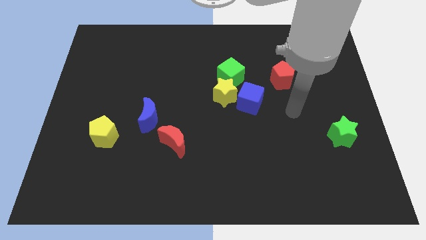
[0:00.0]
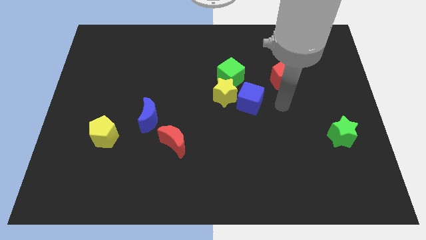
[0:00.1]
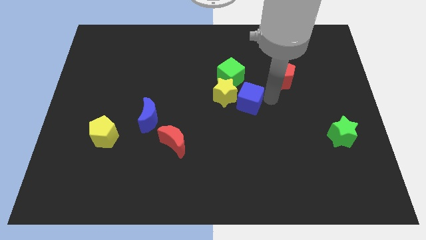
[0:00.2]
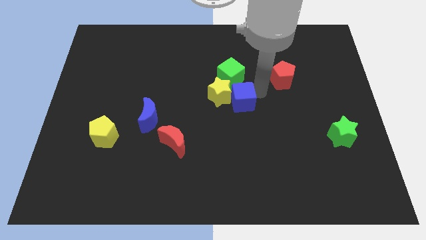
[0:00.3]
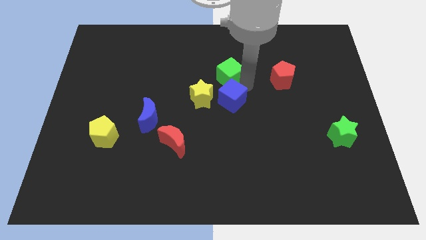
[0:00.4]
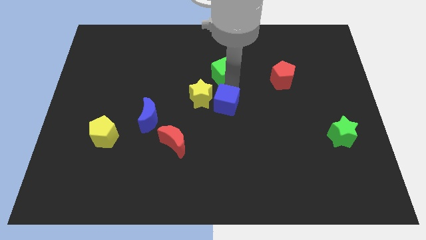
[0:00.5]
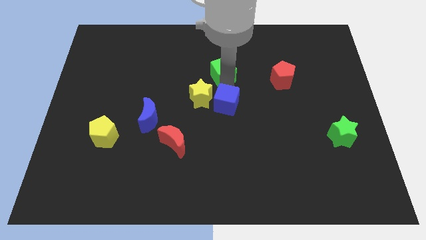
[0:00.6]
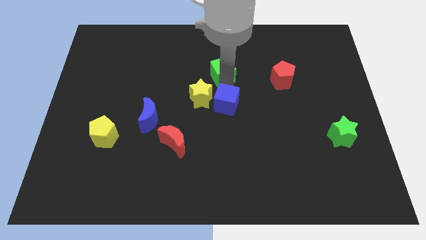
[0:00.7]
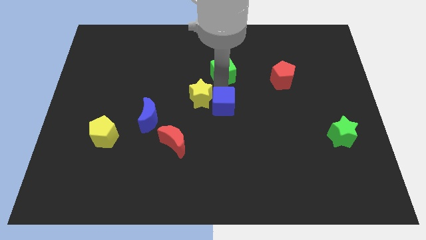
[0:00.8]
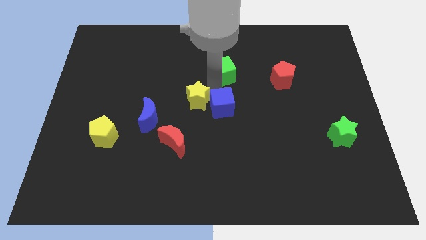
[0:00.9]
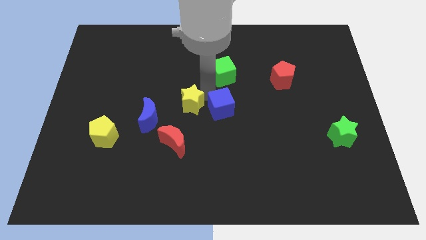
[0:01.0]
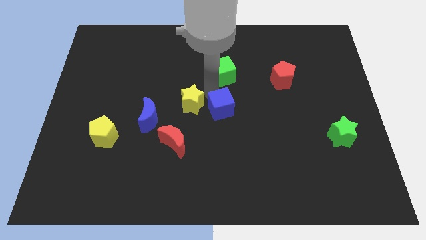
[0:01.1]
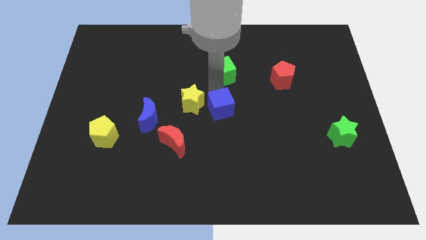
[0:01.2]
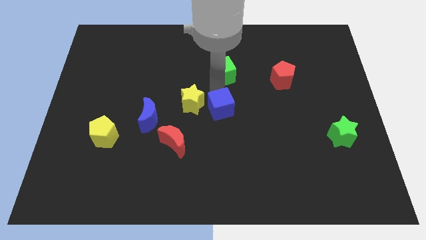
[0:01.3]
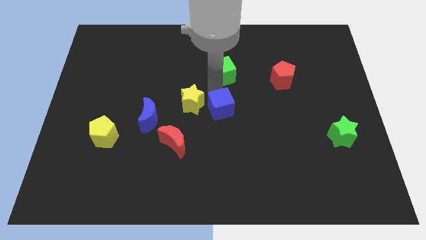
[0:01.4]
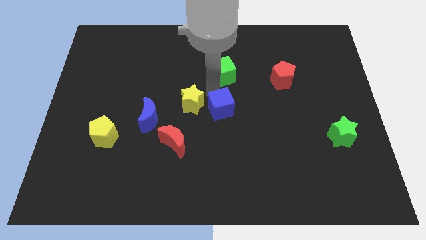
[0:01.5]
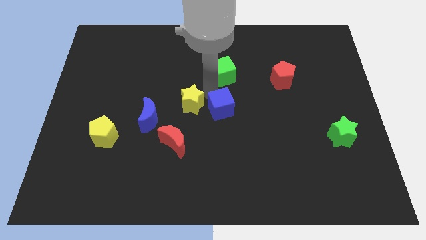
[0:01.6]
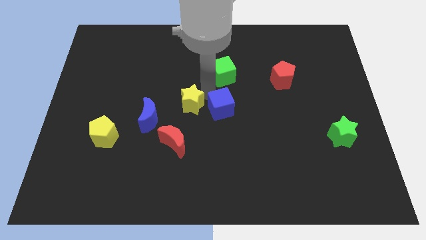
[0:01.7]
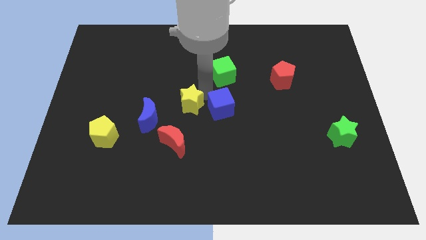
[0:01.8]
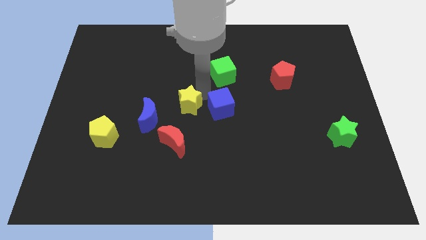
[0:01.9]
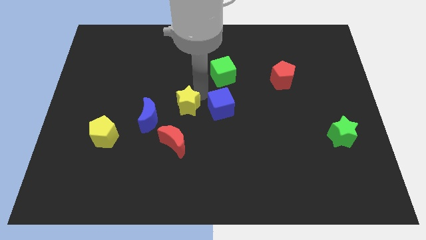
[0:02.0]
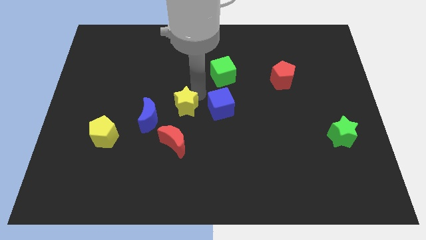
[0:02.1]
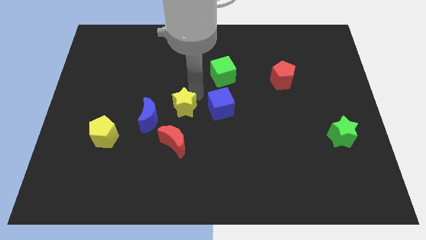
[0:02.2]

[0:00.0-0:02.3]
separate the yellow star from the green cube and blue cube

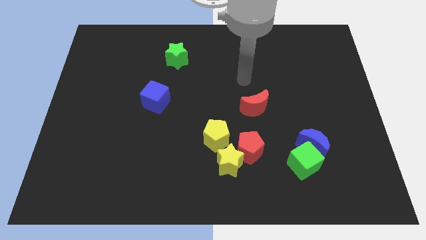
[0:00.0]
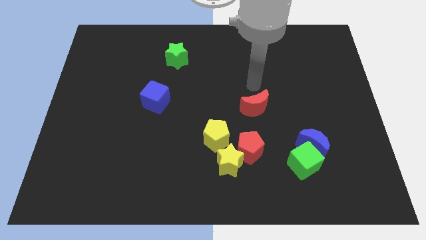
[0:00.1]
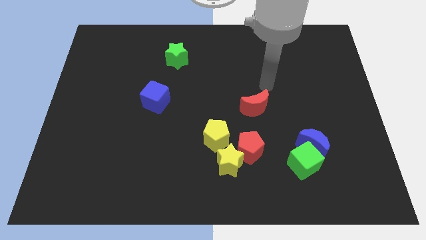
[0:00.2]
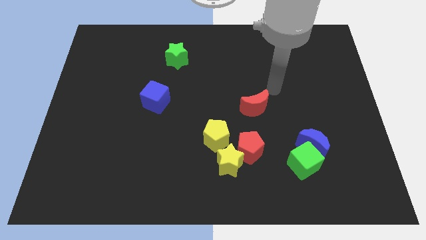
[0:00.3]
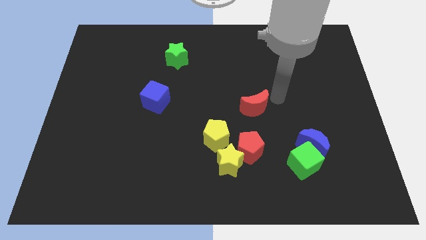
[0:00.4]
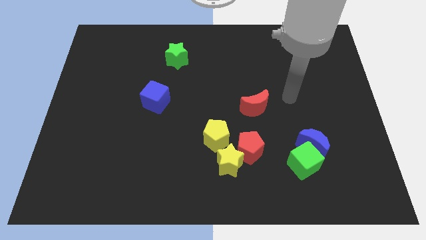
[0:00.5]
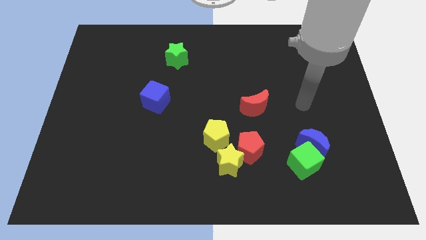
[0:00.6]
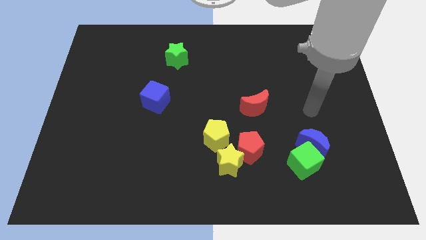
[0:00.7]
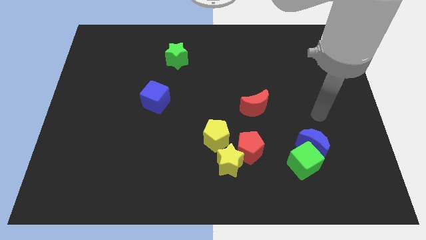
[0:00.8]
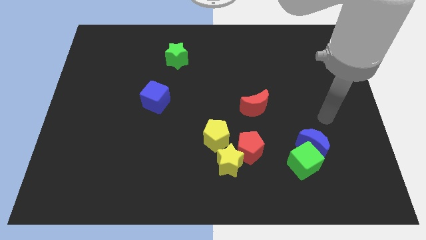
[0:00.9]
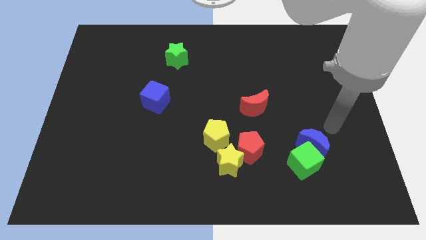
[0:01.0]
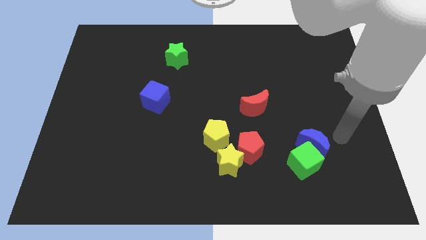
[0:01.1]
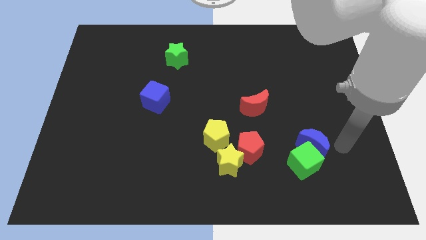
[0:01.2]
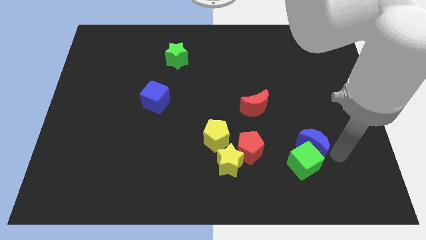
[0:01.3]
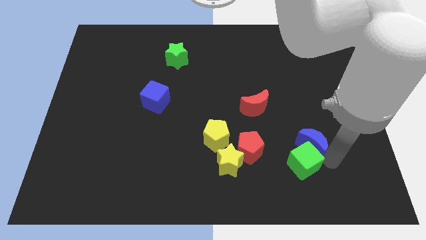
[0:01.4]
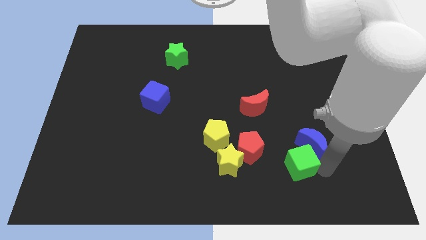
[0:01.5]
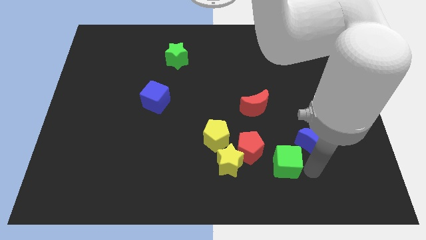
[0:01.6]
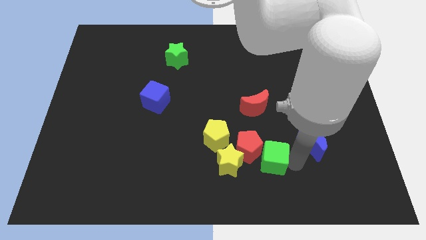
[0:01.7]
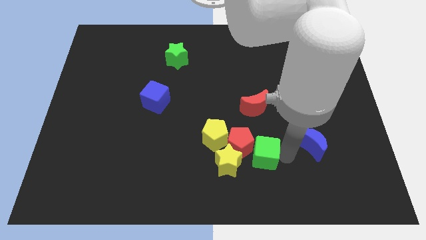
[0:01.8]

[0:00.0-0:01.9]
move the blue moon away from the green cube

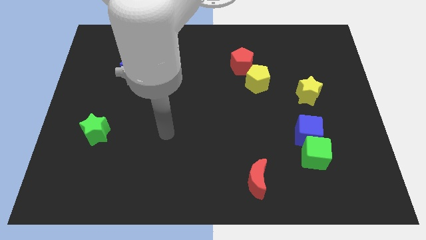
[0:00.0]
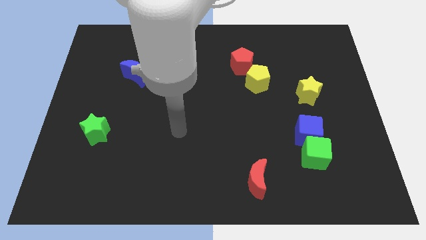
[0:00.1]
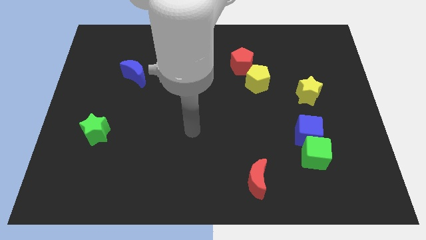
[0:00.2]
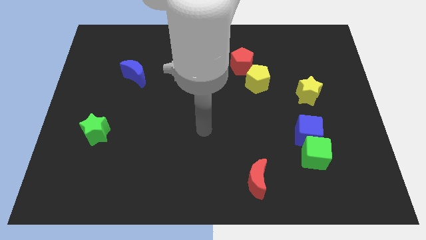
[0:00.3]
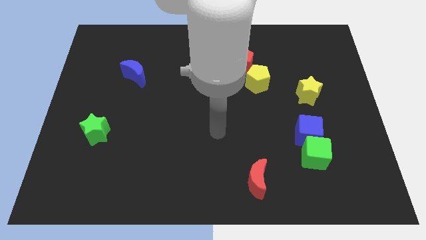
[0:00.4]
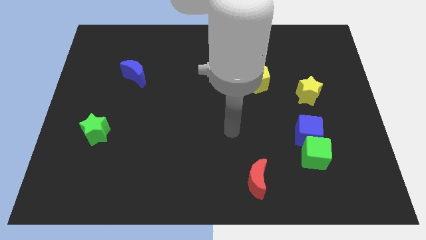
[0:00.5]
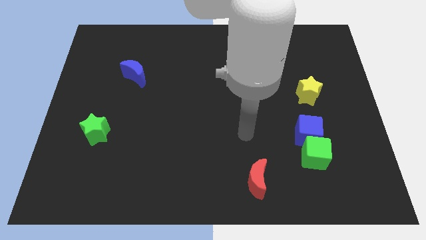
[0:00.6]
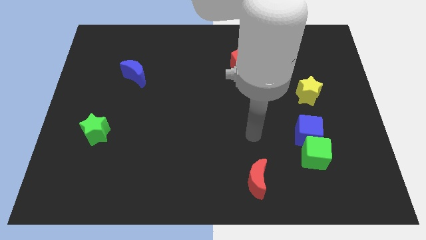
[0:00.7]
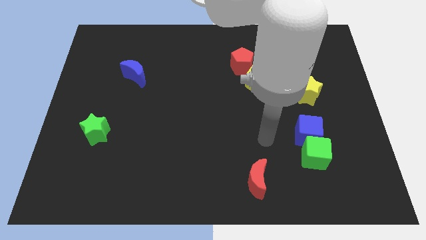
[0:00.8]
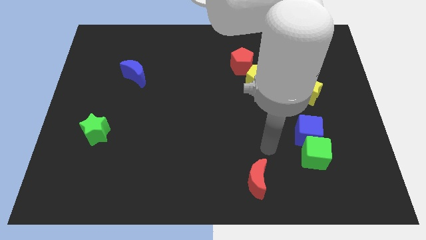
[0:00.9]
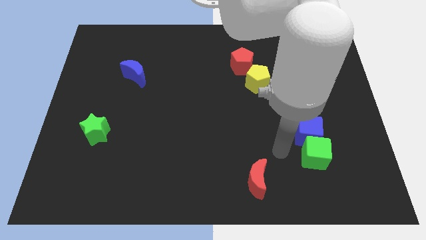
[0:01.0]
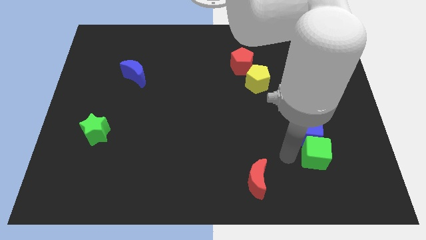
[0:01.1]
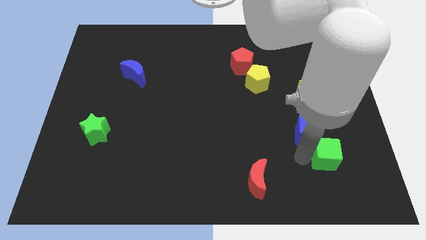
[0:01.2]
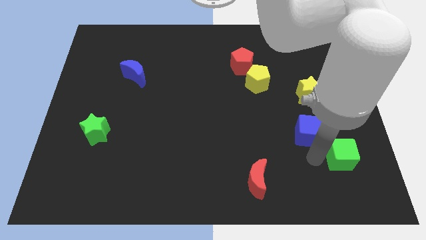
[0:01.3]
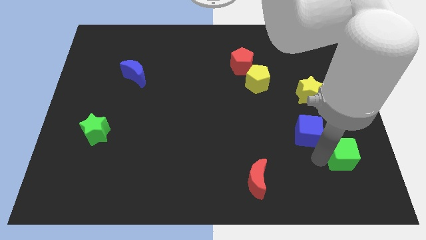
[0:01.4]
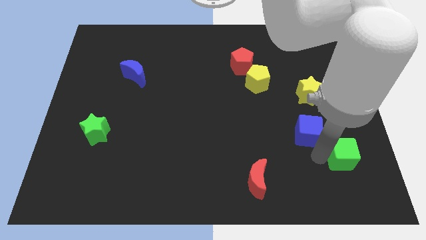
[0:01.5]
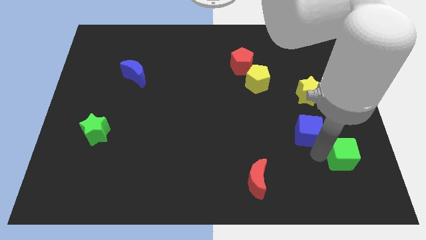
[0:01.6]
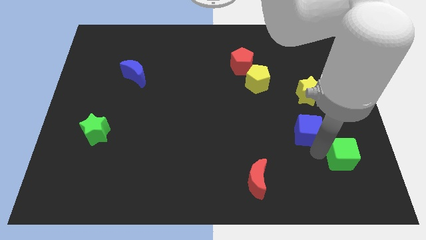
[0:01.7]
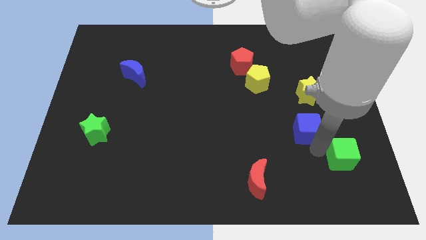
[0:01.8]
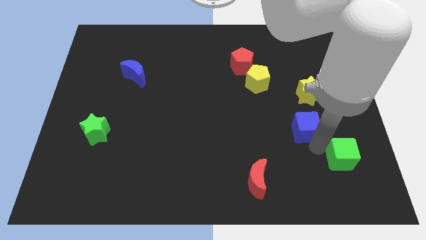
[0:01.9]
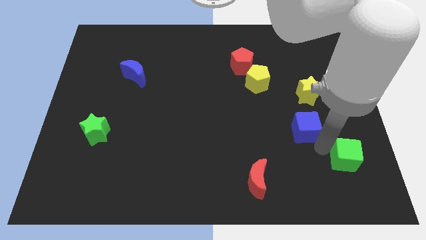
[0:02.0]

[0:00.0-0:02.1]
move the blue cube away from the green cube

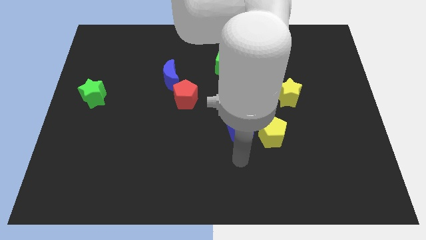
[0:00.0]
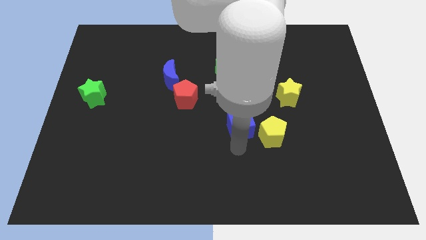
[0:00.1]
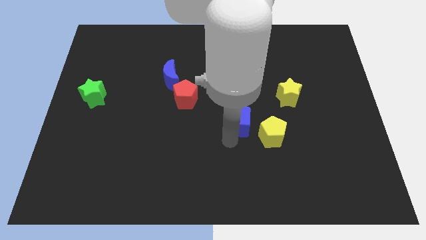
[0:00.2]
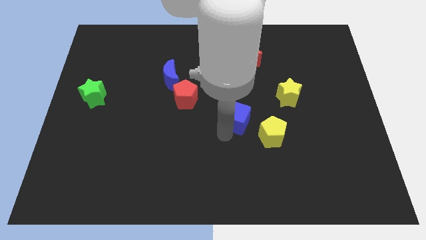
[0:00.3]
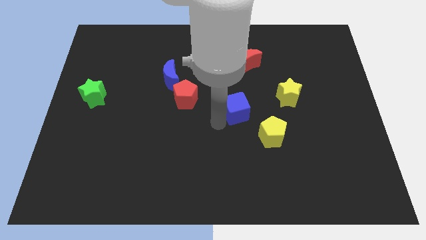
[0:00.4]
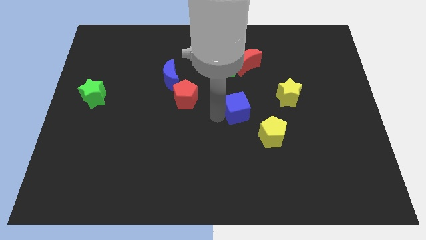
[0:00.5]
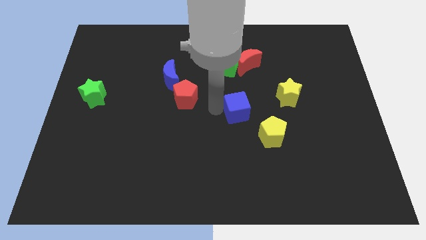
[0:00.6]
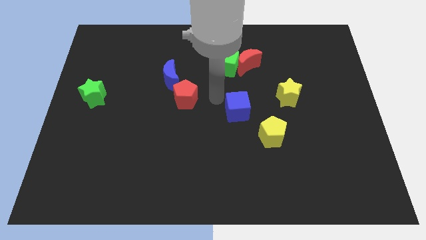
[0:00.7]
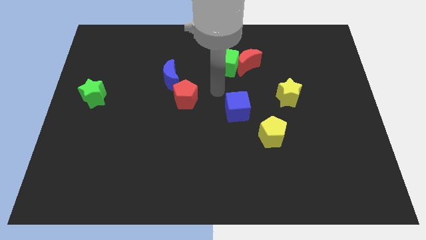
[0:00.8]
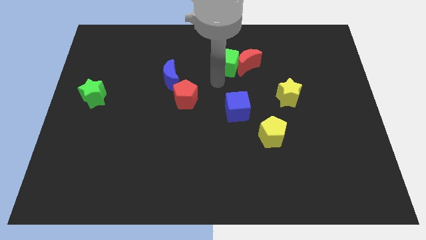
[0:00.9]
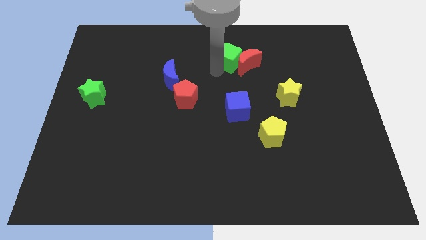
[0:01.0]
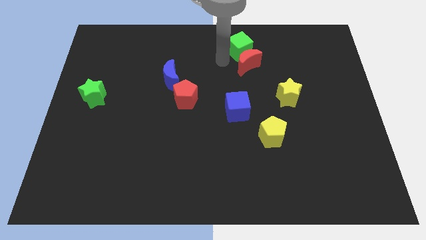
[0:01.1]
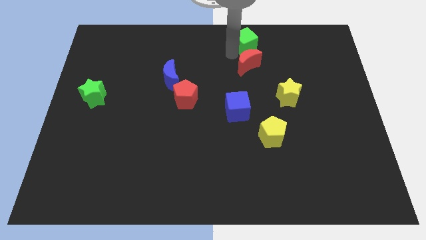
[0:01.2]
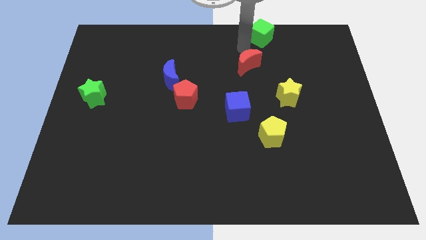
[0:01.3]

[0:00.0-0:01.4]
move the red moon away from the green cube

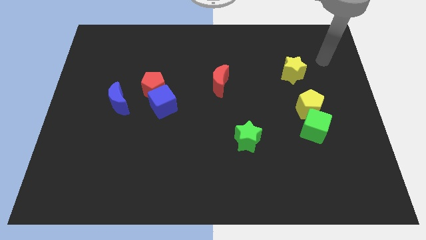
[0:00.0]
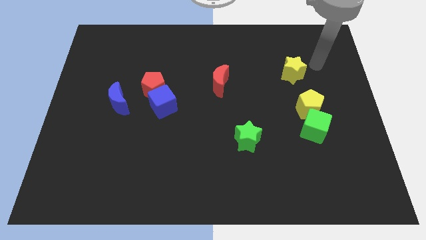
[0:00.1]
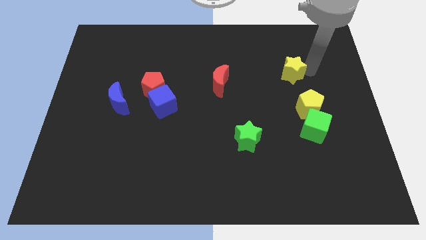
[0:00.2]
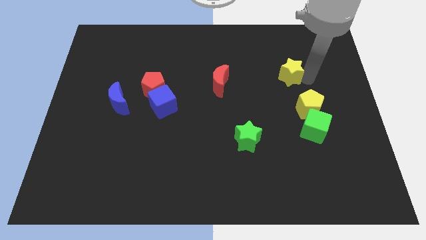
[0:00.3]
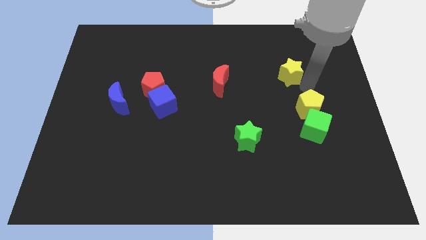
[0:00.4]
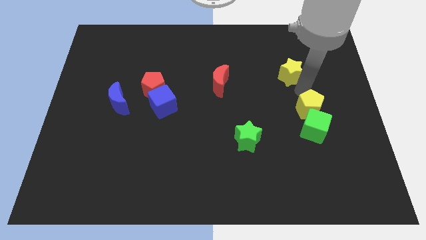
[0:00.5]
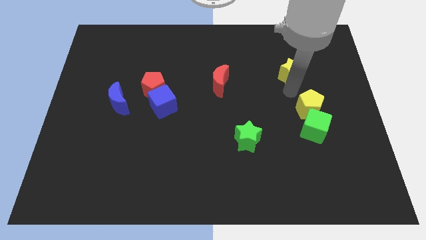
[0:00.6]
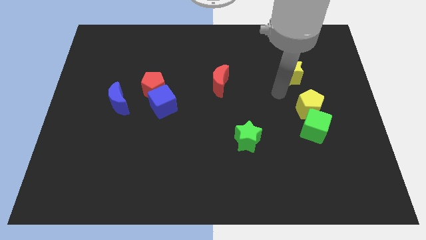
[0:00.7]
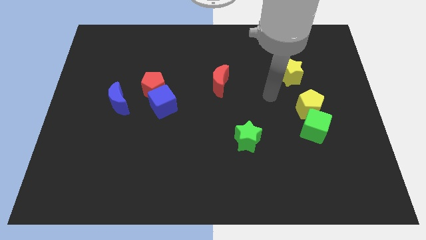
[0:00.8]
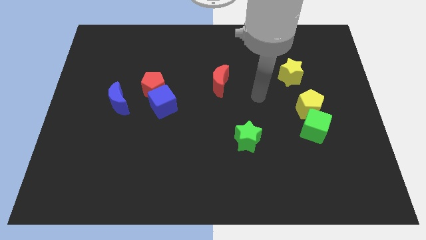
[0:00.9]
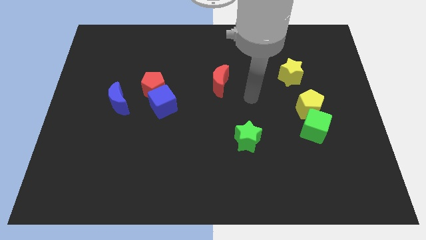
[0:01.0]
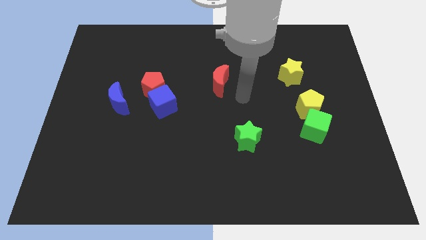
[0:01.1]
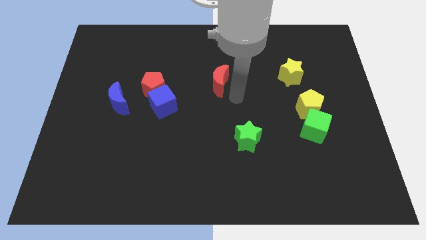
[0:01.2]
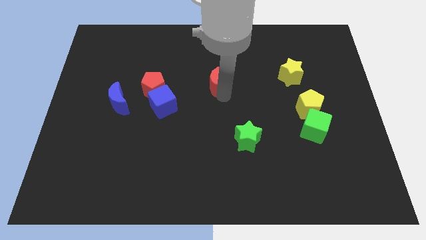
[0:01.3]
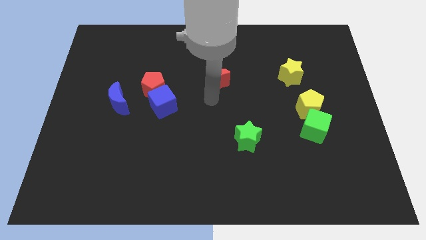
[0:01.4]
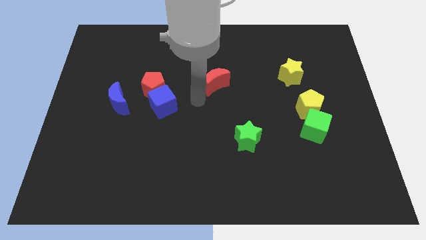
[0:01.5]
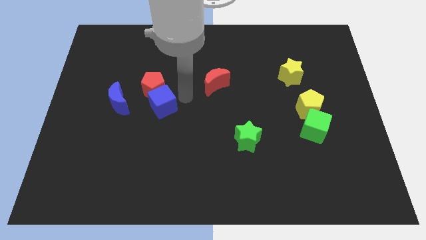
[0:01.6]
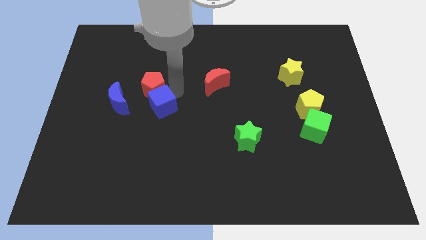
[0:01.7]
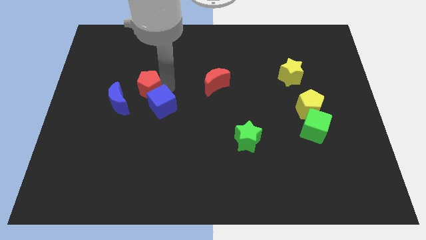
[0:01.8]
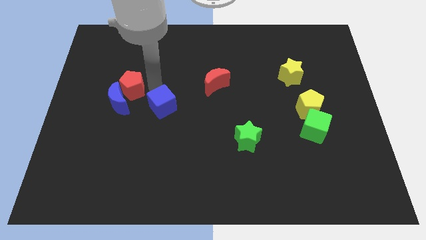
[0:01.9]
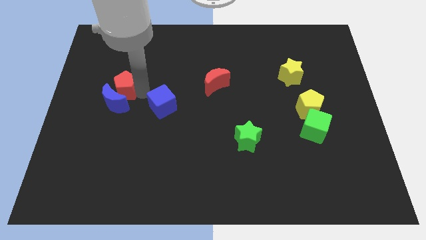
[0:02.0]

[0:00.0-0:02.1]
separate the blue cube from the red pentagon
